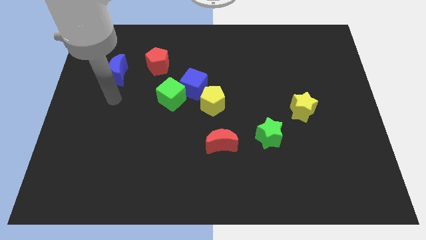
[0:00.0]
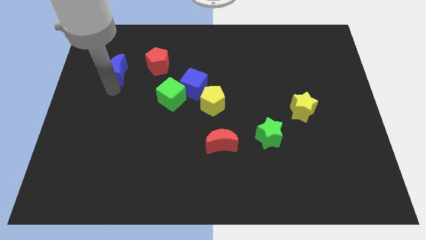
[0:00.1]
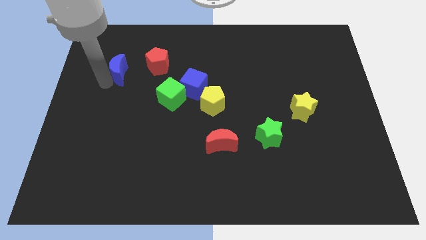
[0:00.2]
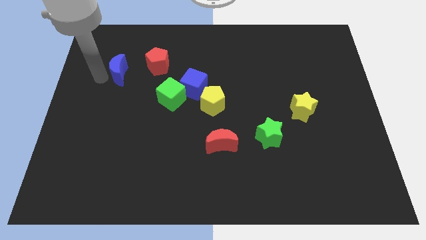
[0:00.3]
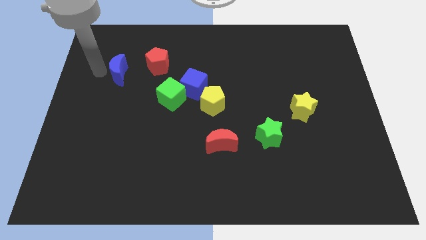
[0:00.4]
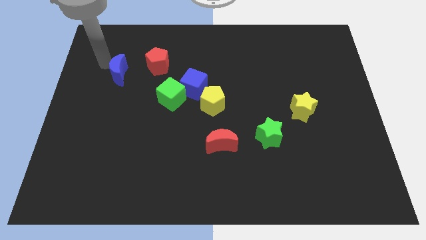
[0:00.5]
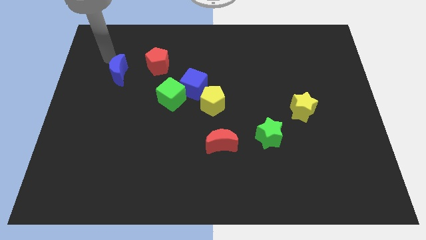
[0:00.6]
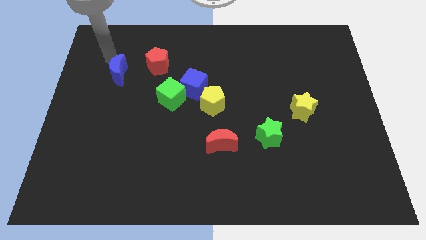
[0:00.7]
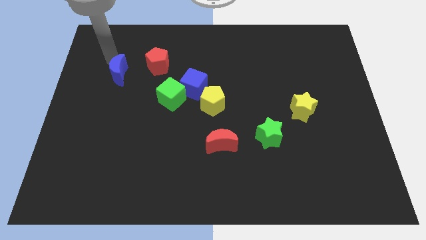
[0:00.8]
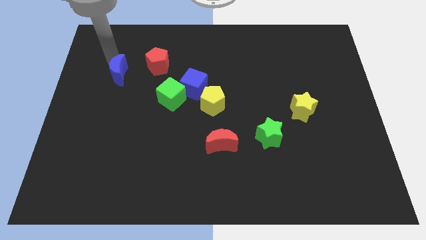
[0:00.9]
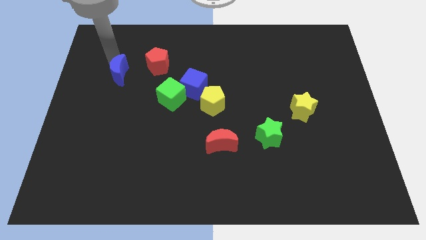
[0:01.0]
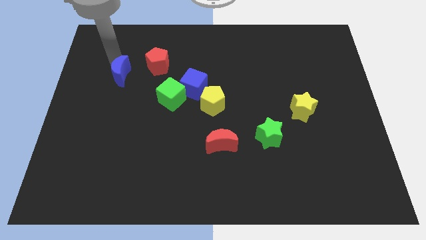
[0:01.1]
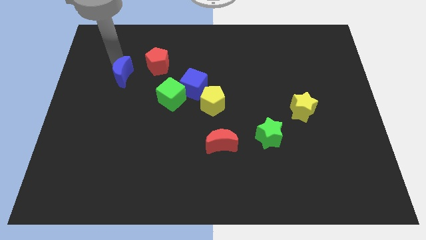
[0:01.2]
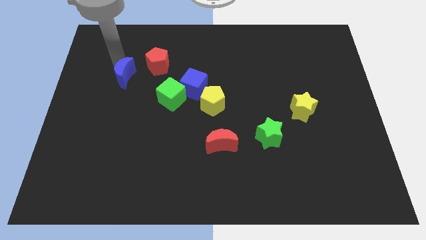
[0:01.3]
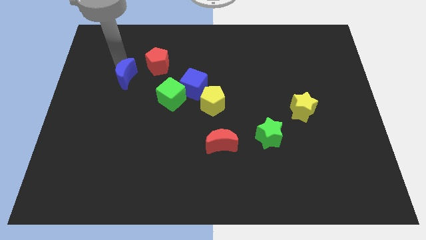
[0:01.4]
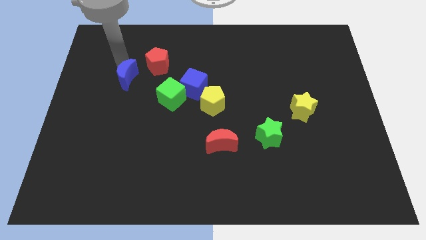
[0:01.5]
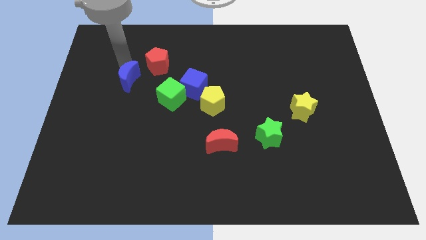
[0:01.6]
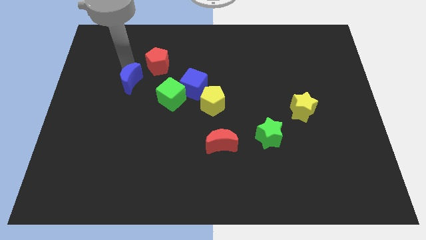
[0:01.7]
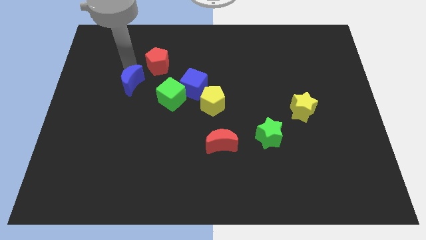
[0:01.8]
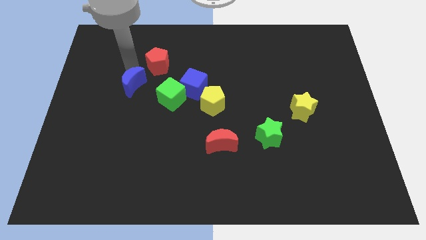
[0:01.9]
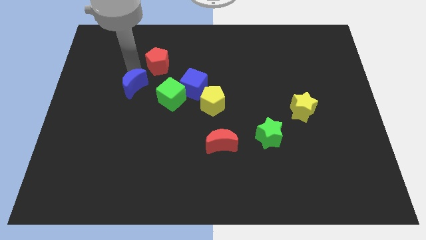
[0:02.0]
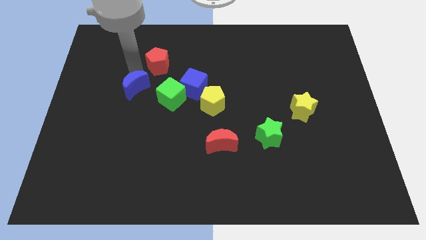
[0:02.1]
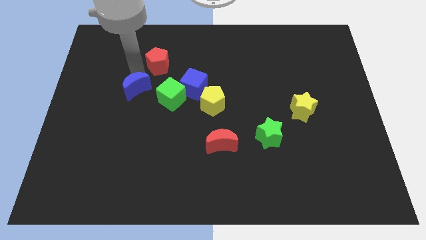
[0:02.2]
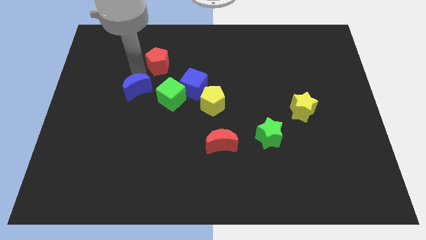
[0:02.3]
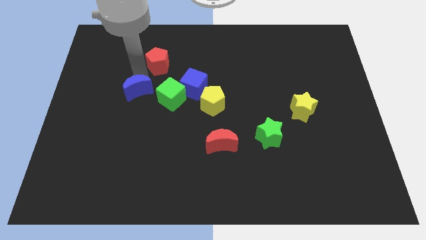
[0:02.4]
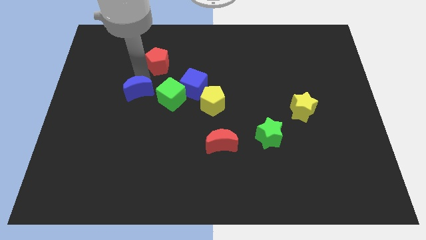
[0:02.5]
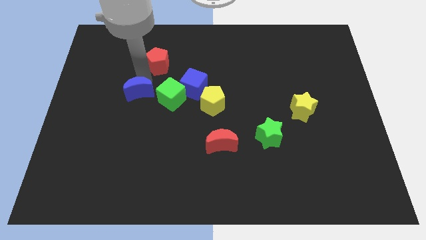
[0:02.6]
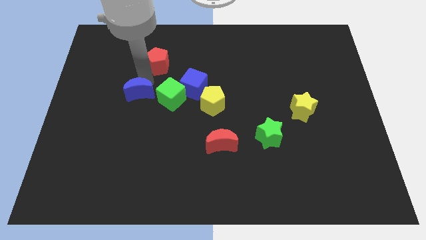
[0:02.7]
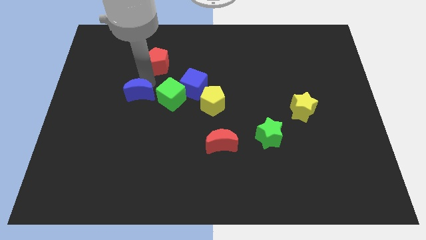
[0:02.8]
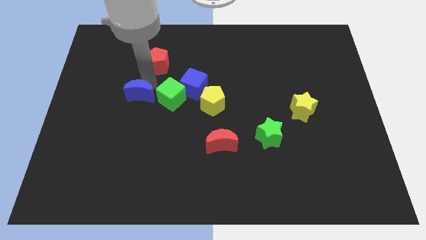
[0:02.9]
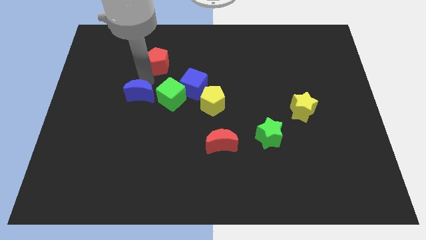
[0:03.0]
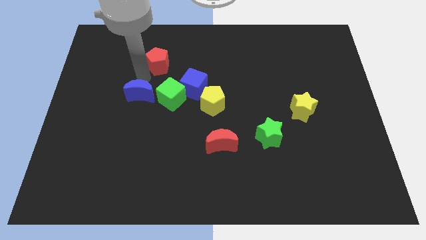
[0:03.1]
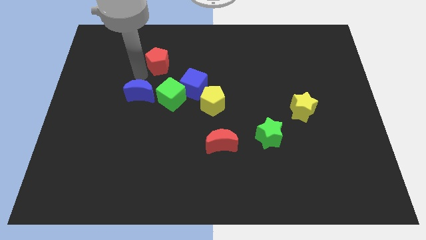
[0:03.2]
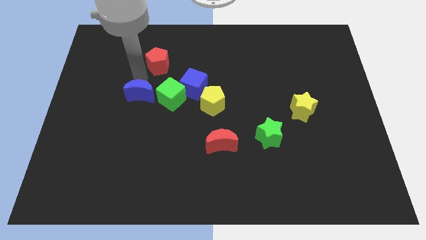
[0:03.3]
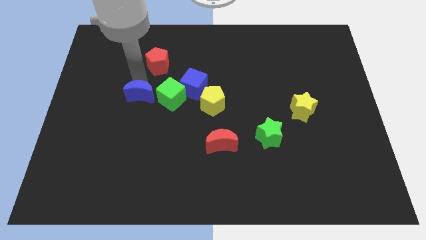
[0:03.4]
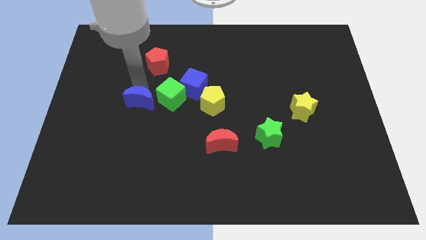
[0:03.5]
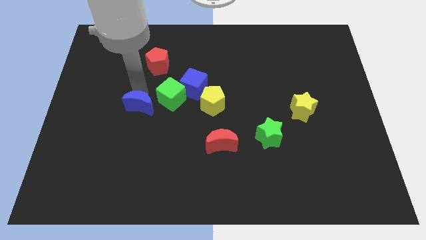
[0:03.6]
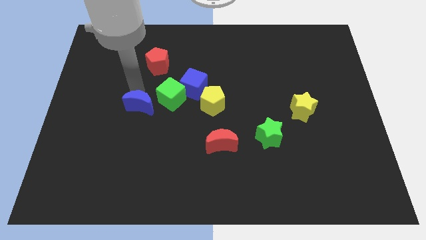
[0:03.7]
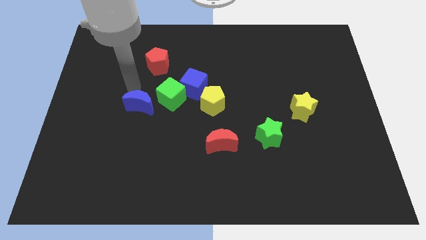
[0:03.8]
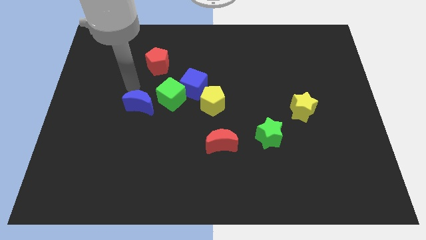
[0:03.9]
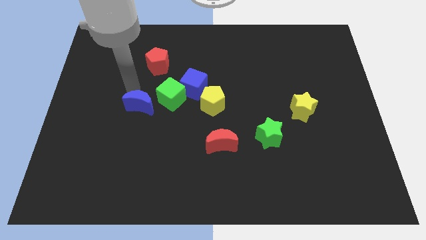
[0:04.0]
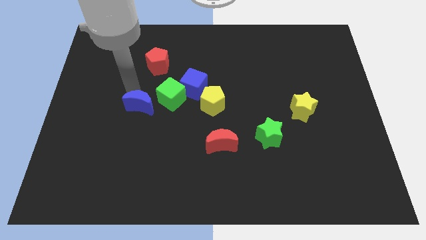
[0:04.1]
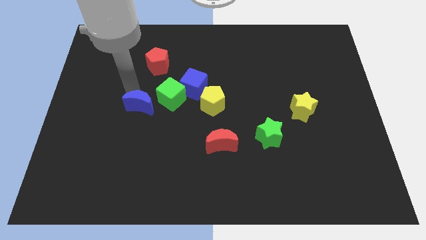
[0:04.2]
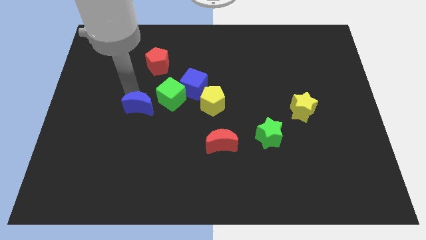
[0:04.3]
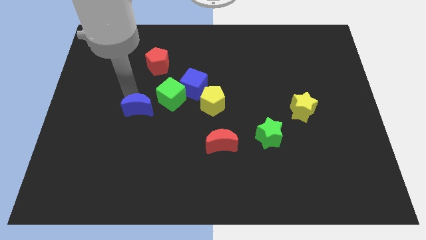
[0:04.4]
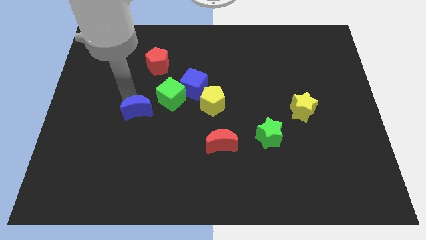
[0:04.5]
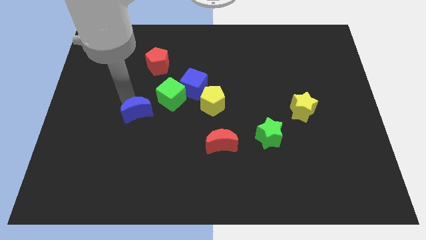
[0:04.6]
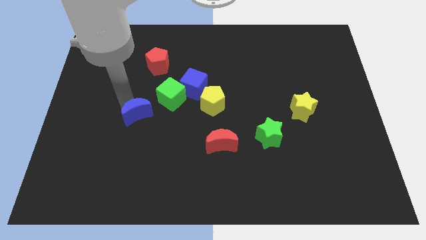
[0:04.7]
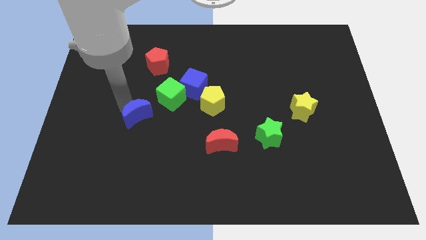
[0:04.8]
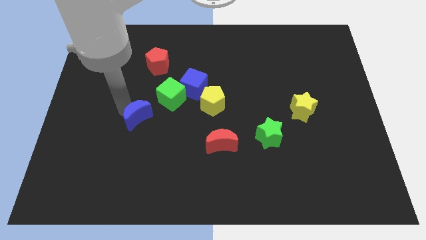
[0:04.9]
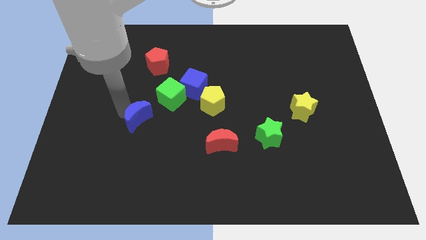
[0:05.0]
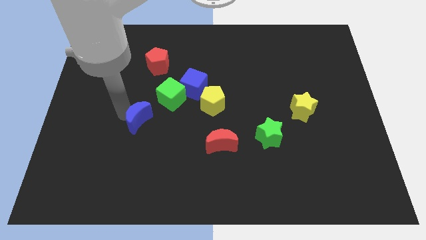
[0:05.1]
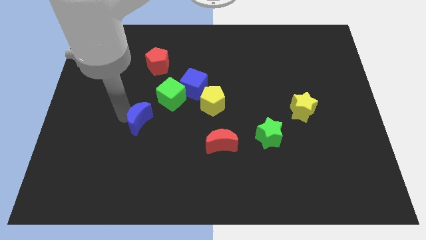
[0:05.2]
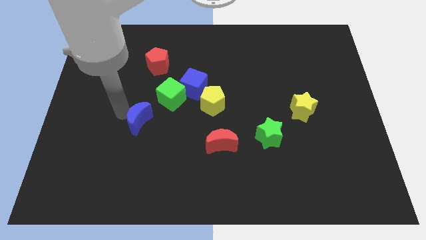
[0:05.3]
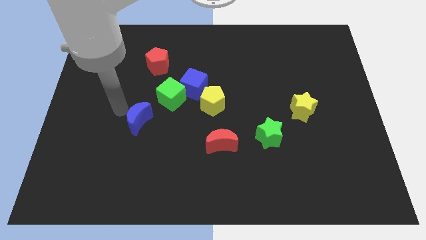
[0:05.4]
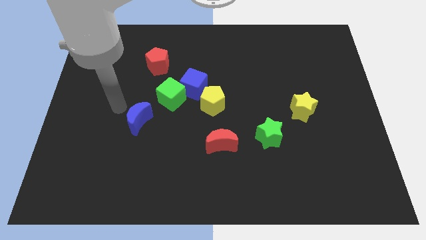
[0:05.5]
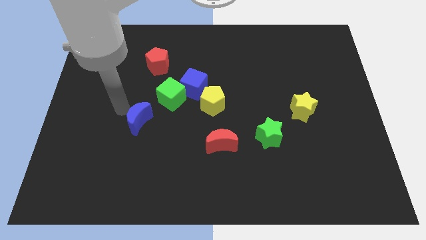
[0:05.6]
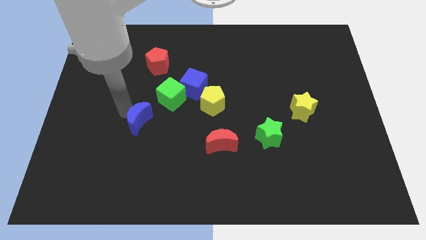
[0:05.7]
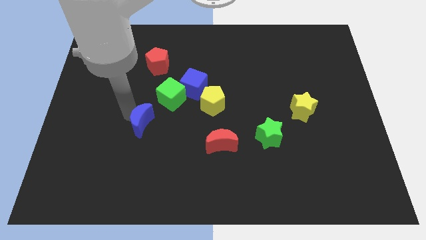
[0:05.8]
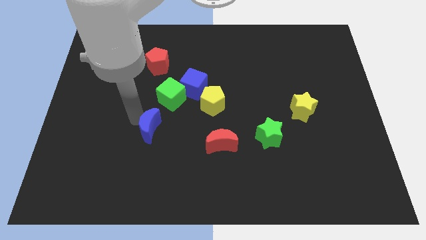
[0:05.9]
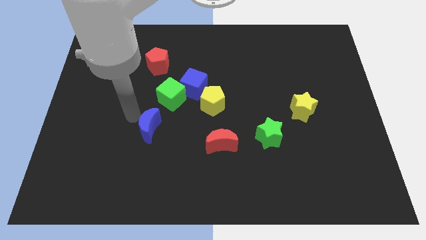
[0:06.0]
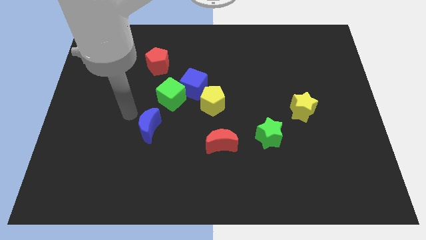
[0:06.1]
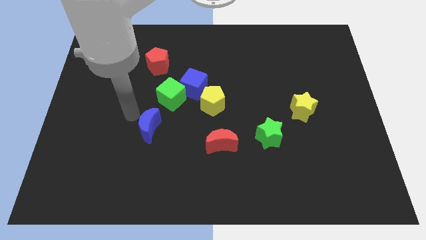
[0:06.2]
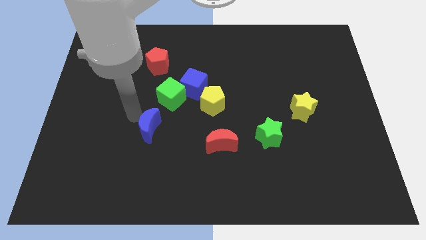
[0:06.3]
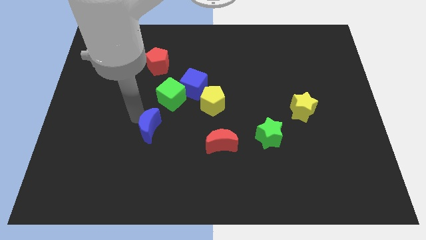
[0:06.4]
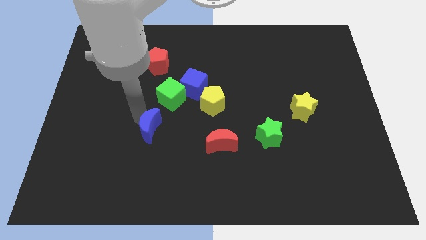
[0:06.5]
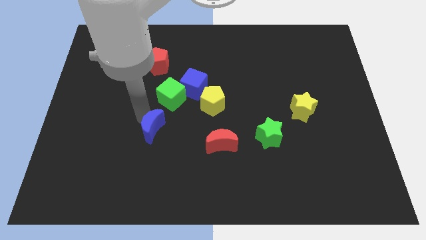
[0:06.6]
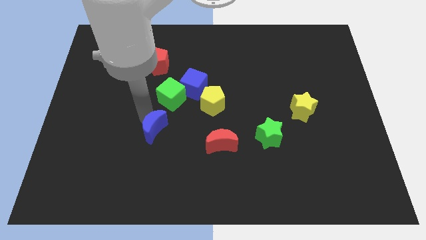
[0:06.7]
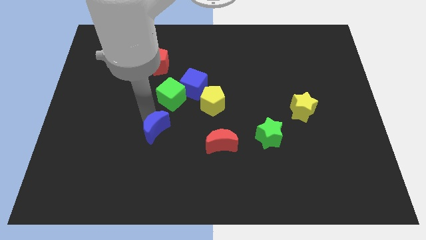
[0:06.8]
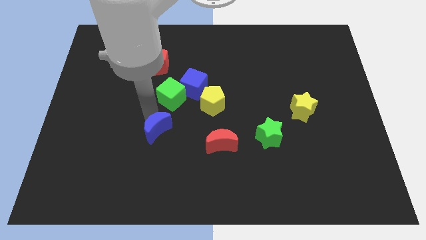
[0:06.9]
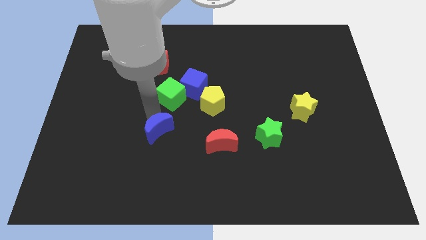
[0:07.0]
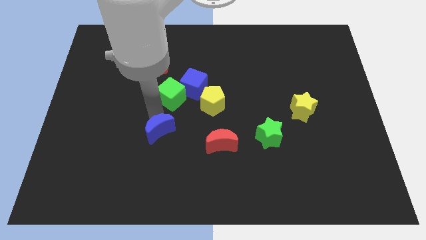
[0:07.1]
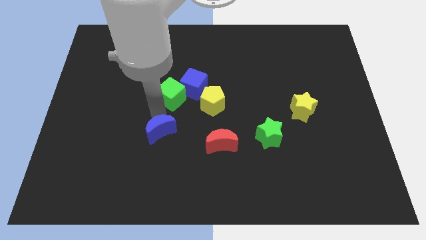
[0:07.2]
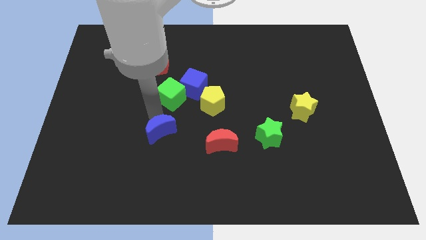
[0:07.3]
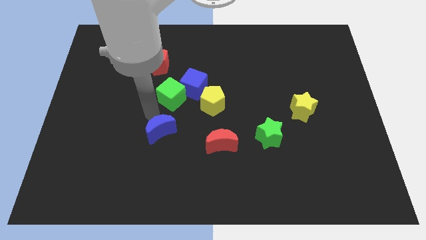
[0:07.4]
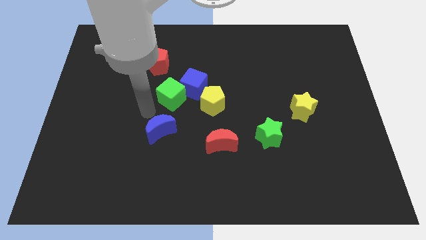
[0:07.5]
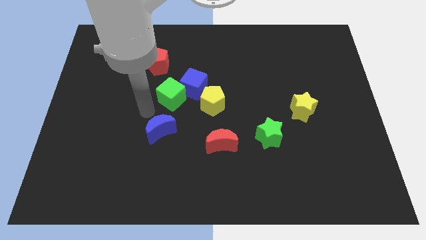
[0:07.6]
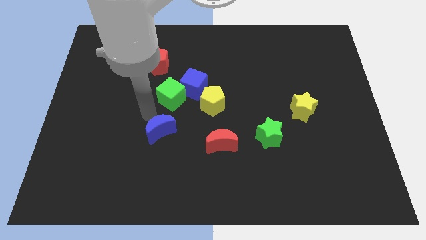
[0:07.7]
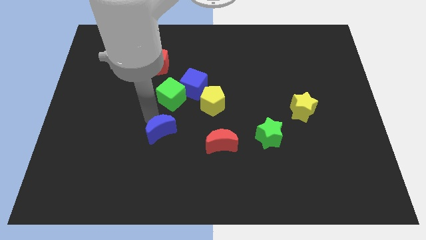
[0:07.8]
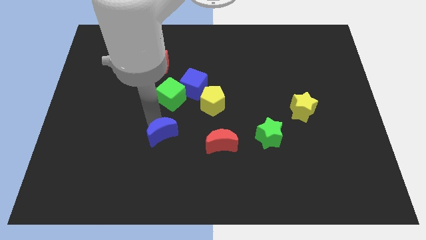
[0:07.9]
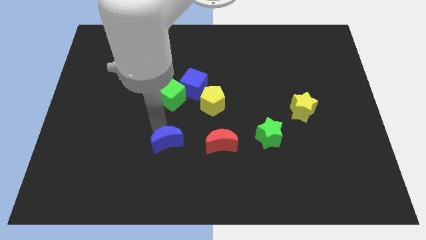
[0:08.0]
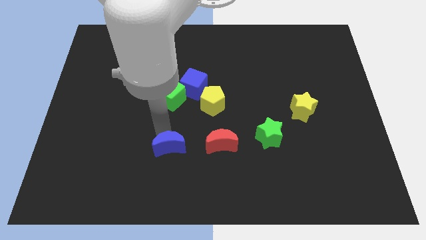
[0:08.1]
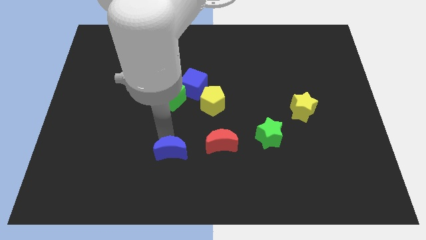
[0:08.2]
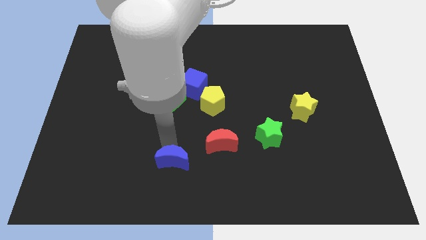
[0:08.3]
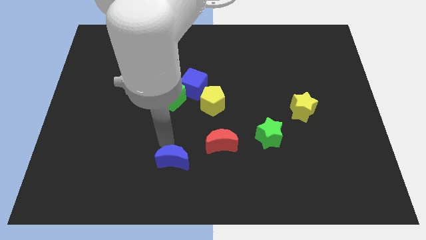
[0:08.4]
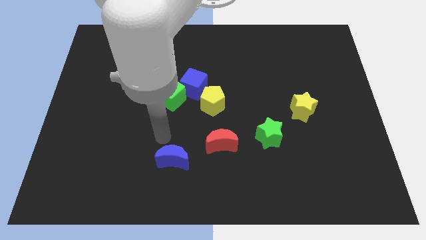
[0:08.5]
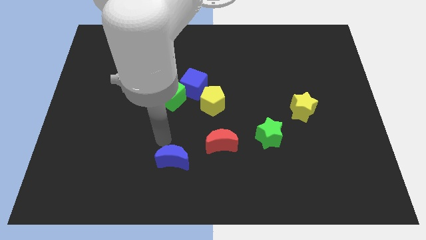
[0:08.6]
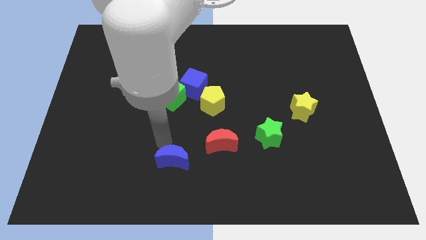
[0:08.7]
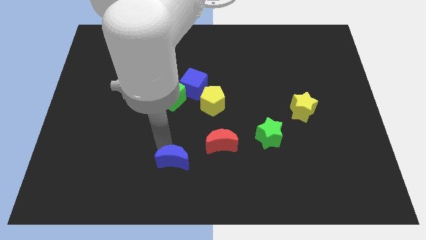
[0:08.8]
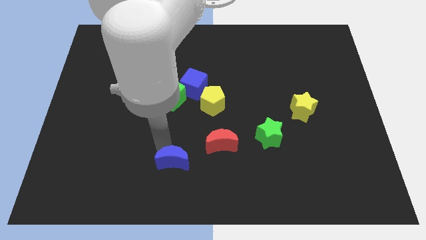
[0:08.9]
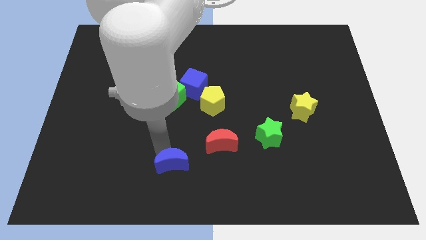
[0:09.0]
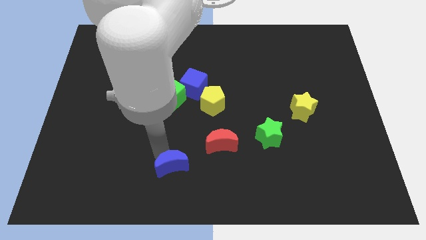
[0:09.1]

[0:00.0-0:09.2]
put the blue moon to the bottom side
